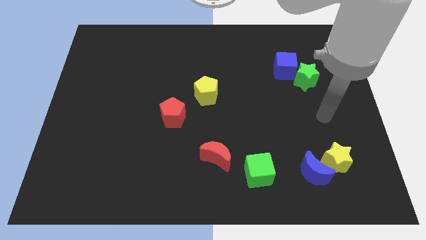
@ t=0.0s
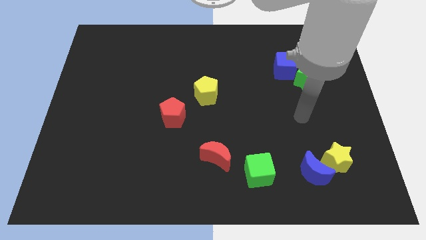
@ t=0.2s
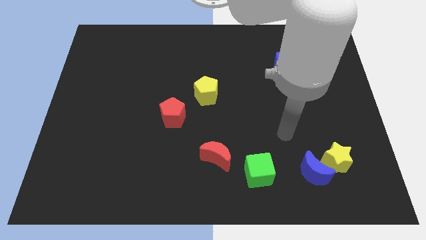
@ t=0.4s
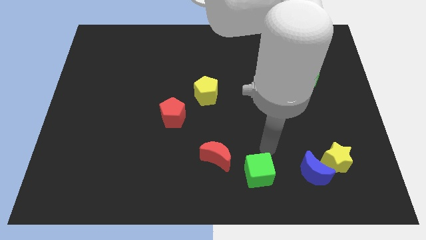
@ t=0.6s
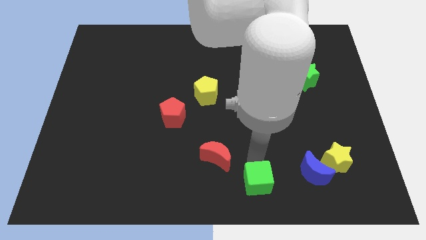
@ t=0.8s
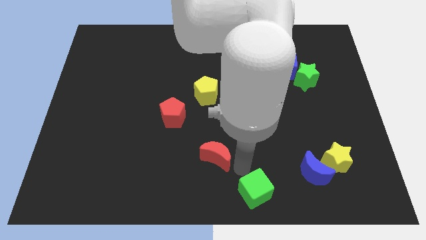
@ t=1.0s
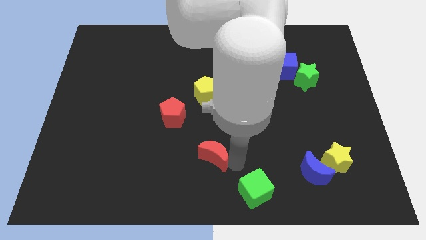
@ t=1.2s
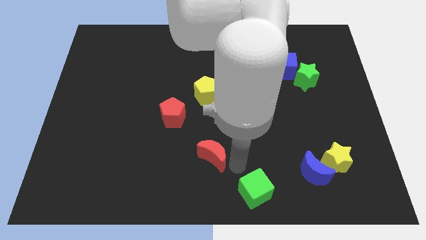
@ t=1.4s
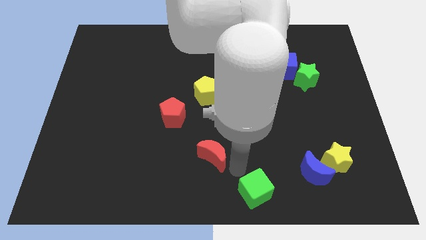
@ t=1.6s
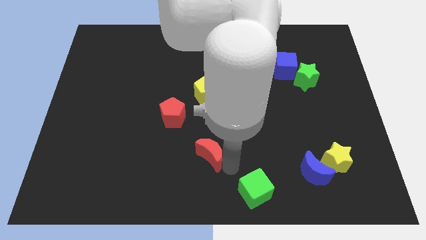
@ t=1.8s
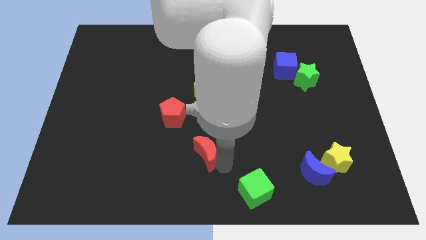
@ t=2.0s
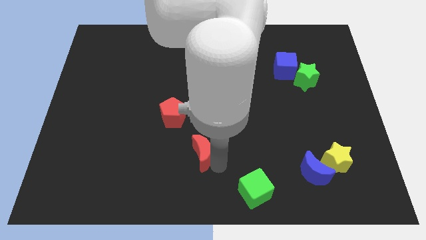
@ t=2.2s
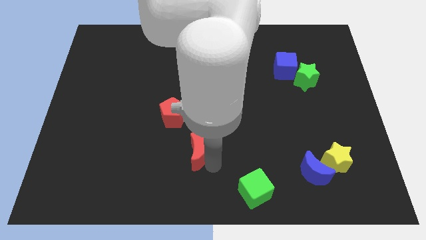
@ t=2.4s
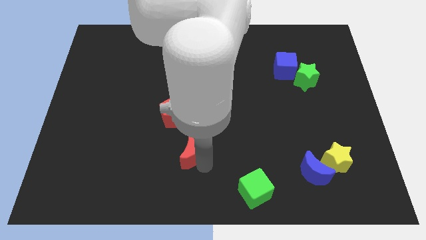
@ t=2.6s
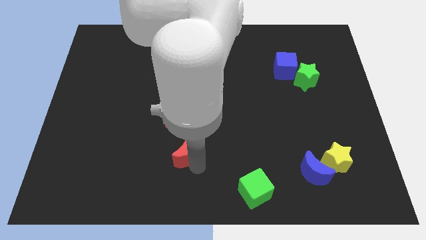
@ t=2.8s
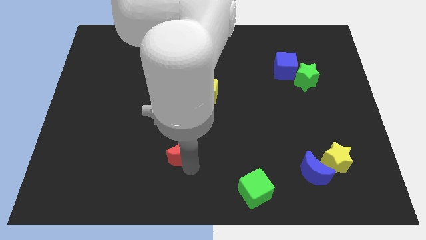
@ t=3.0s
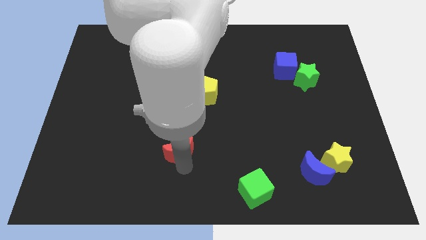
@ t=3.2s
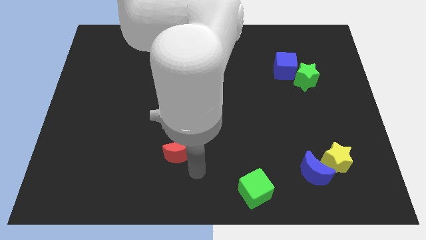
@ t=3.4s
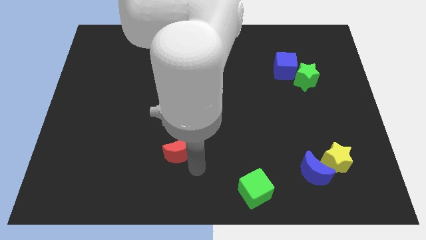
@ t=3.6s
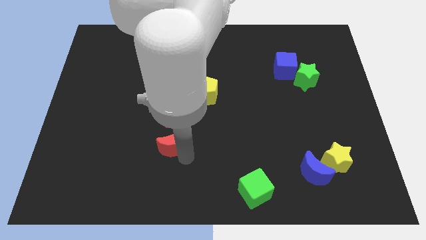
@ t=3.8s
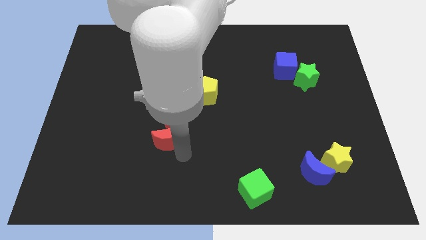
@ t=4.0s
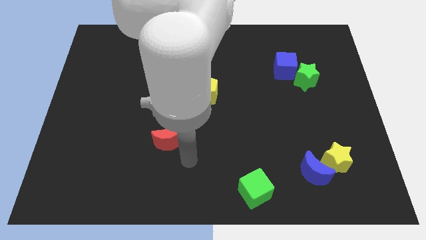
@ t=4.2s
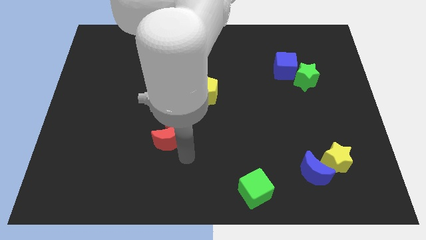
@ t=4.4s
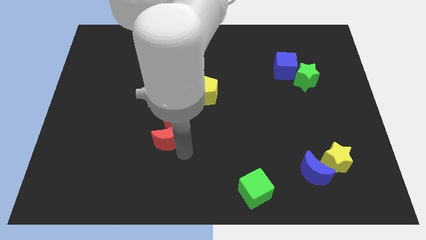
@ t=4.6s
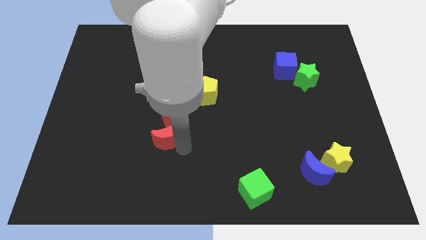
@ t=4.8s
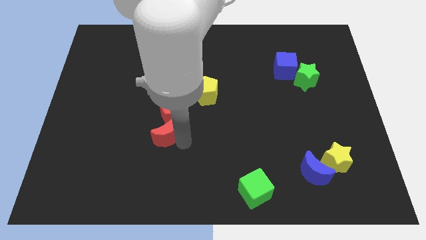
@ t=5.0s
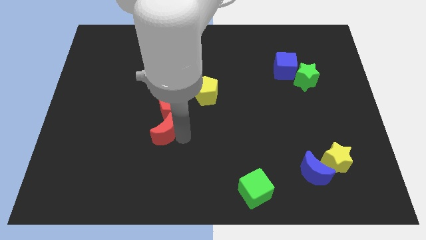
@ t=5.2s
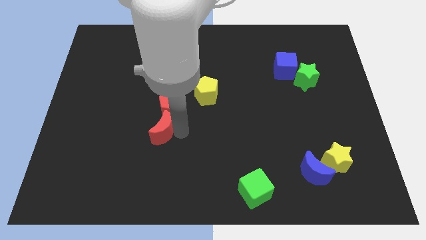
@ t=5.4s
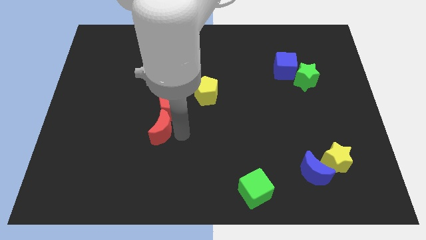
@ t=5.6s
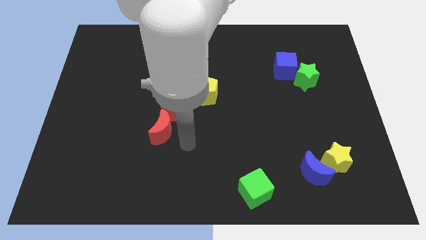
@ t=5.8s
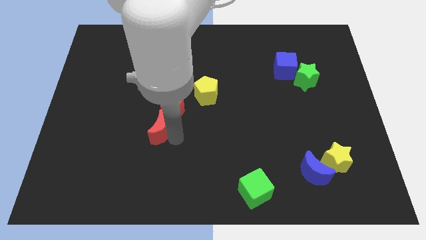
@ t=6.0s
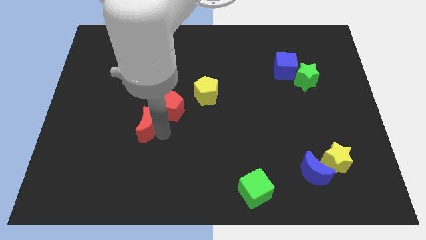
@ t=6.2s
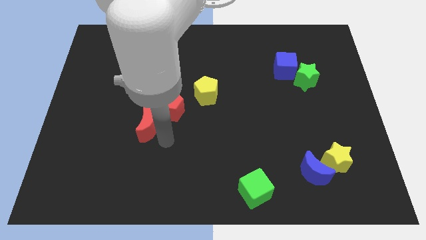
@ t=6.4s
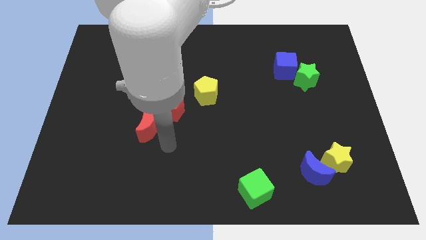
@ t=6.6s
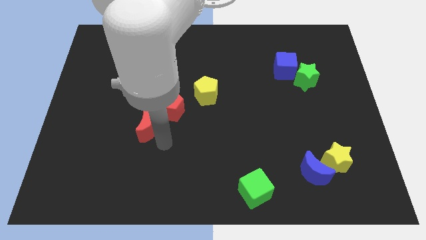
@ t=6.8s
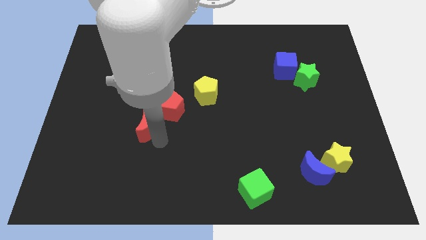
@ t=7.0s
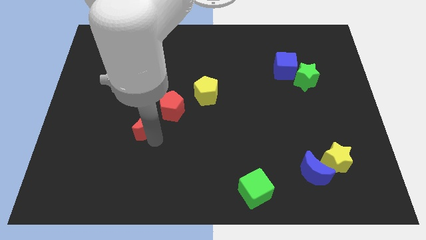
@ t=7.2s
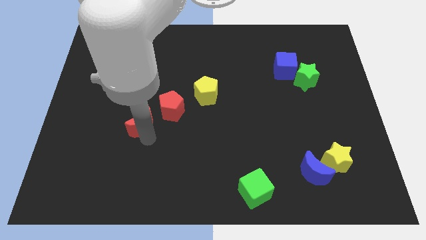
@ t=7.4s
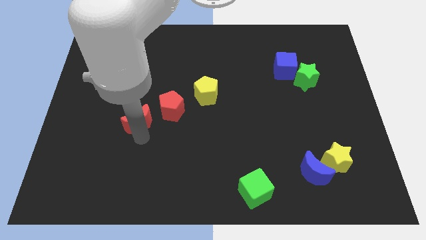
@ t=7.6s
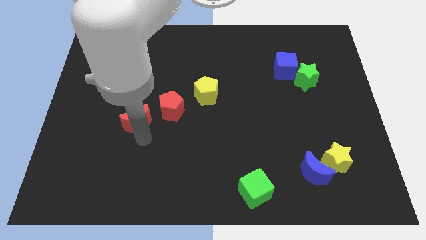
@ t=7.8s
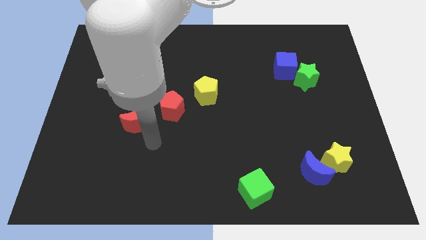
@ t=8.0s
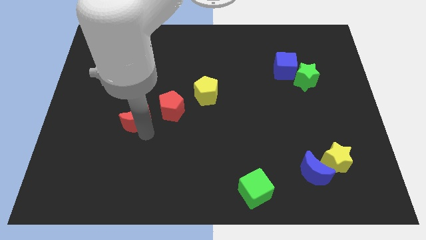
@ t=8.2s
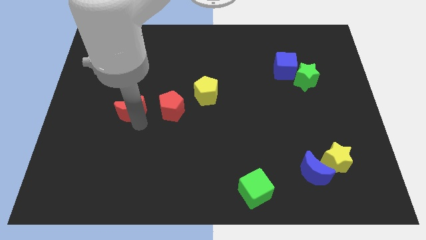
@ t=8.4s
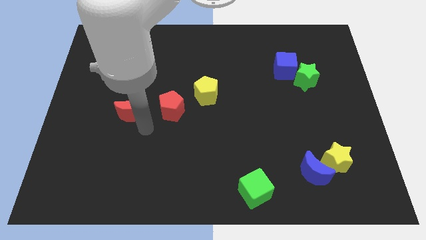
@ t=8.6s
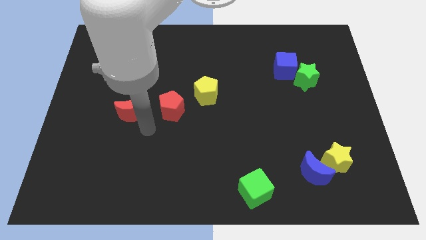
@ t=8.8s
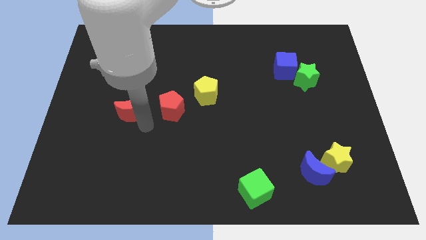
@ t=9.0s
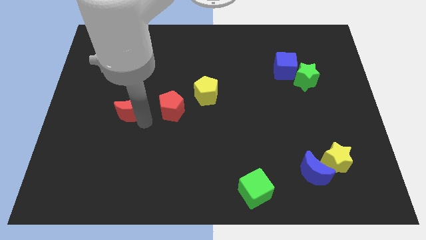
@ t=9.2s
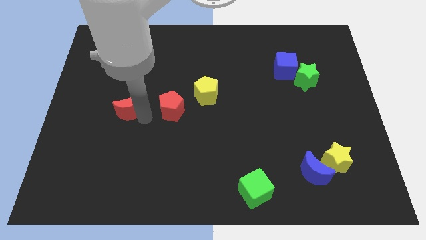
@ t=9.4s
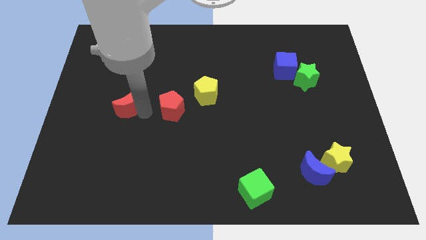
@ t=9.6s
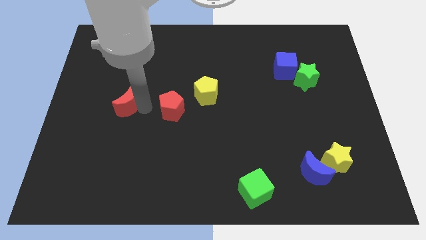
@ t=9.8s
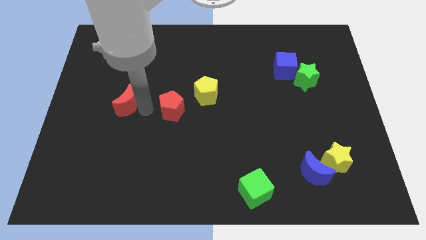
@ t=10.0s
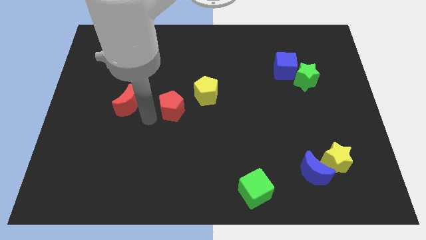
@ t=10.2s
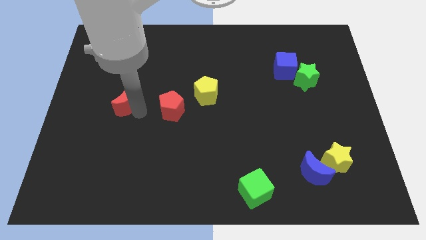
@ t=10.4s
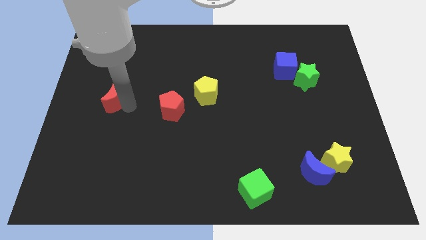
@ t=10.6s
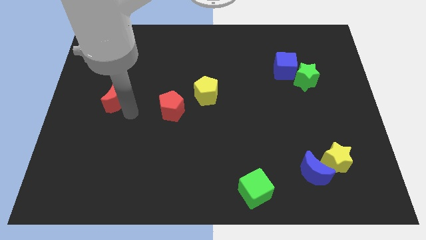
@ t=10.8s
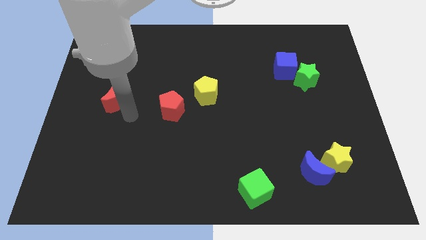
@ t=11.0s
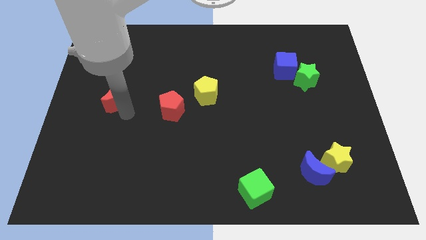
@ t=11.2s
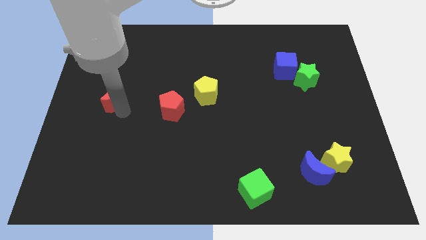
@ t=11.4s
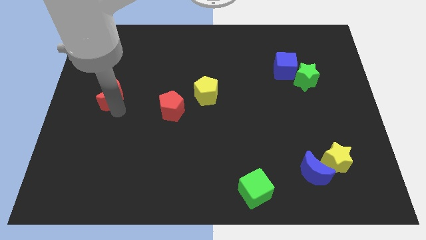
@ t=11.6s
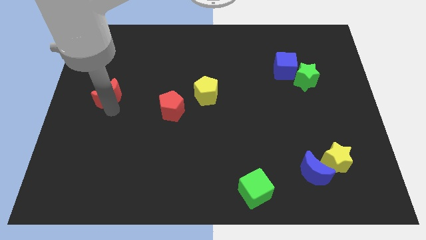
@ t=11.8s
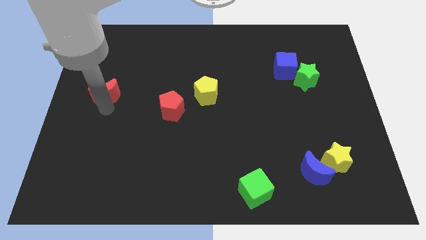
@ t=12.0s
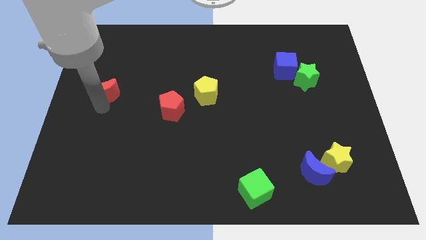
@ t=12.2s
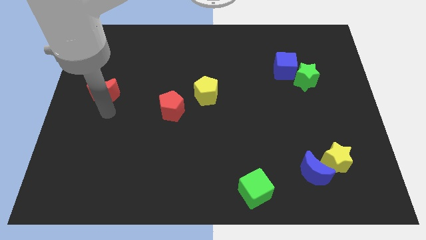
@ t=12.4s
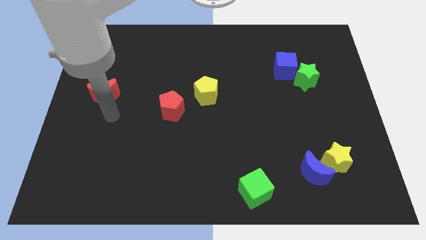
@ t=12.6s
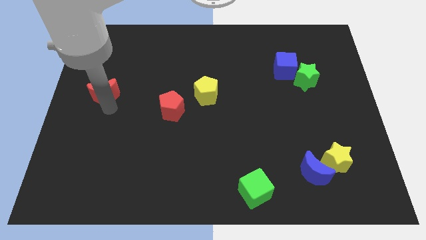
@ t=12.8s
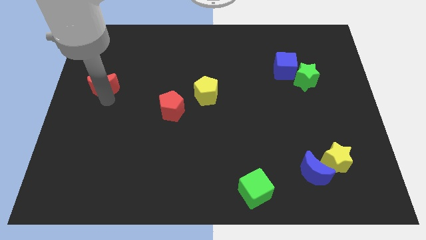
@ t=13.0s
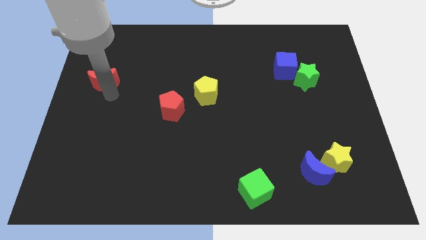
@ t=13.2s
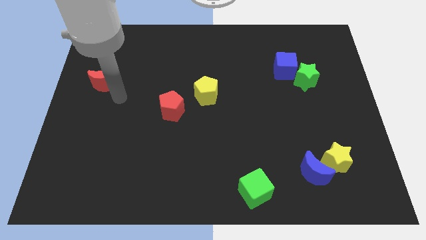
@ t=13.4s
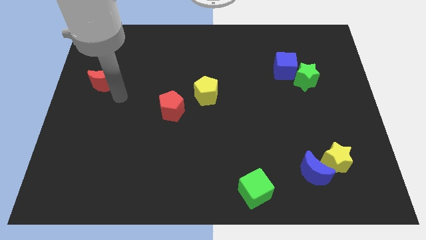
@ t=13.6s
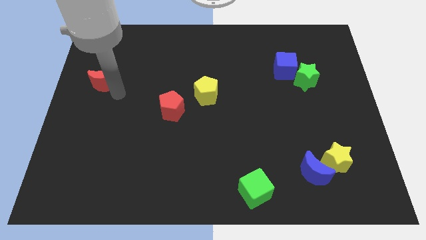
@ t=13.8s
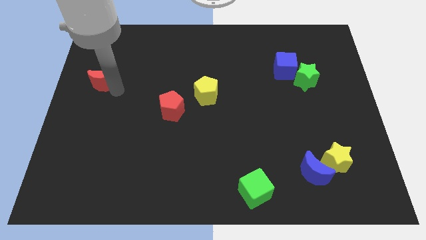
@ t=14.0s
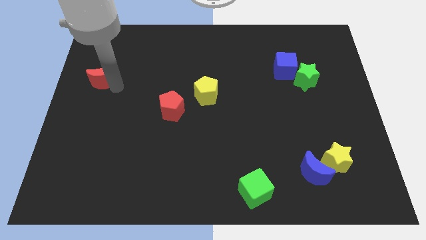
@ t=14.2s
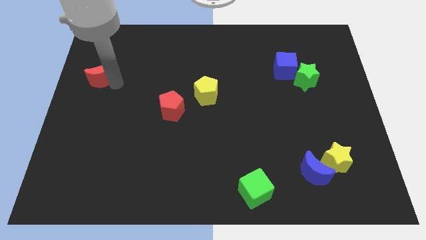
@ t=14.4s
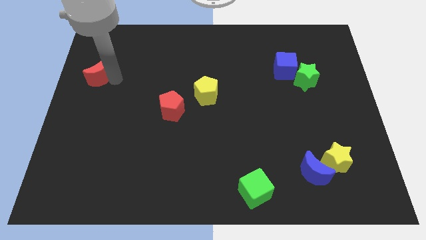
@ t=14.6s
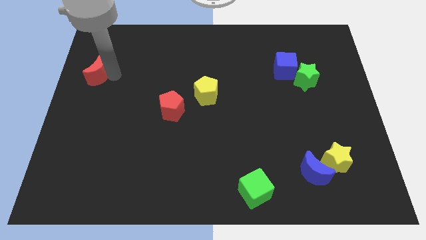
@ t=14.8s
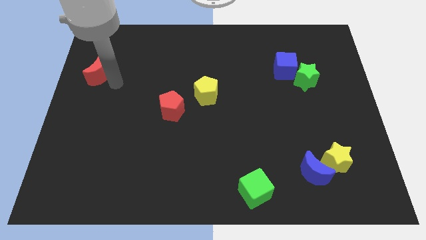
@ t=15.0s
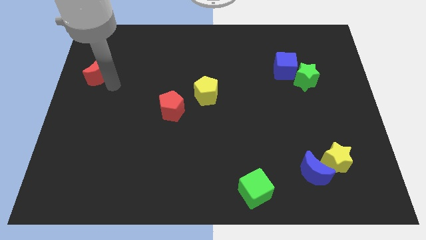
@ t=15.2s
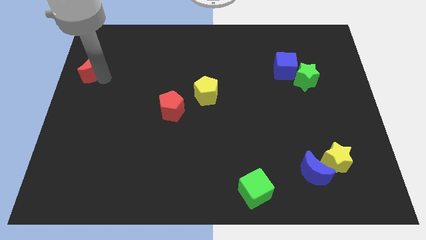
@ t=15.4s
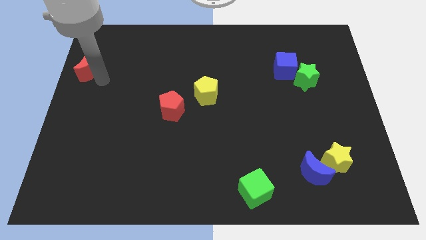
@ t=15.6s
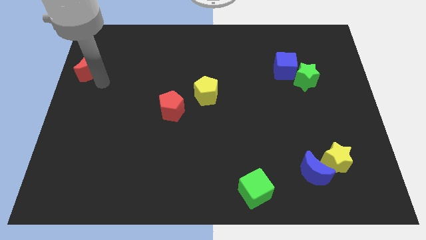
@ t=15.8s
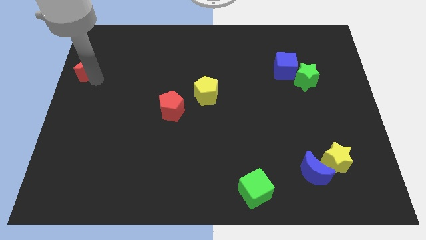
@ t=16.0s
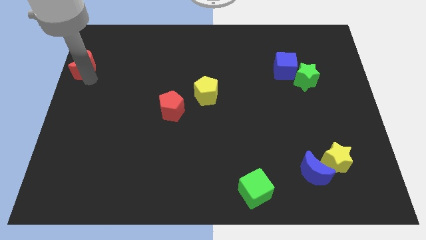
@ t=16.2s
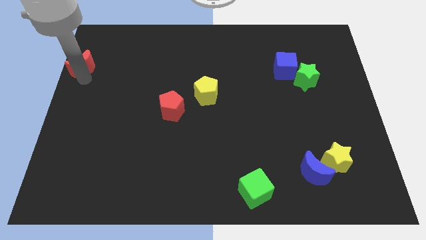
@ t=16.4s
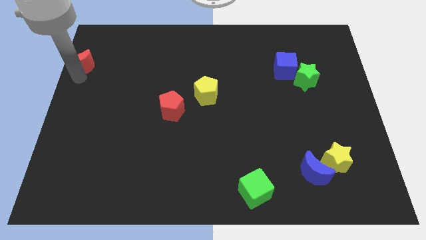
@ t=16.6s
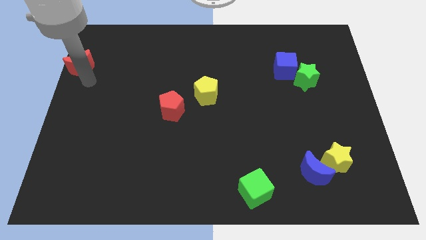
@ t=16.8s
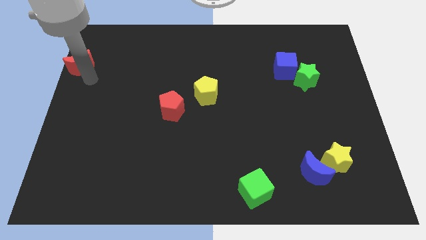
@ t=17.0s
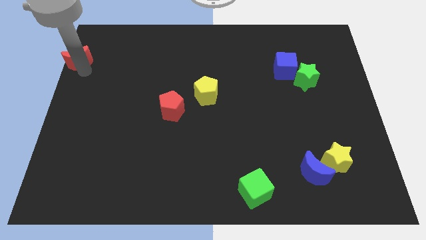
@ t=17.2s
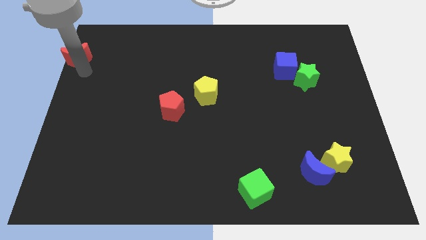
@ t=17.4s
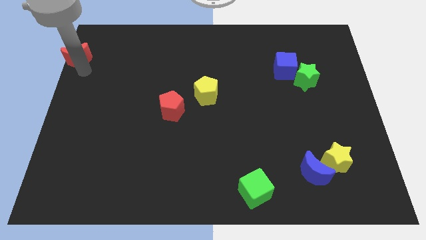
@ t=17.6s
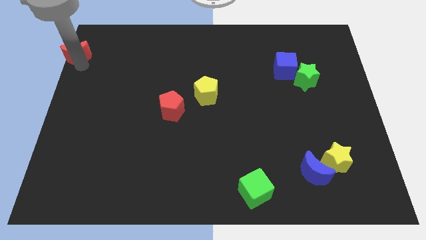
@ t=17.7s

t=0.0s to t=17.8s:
move the red moon to the top left of the board
